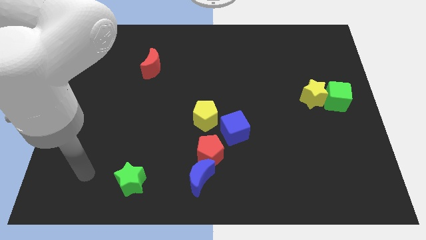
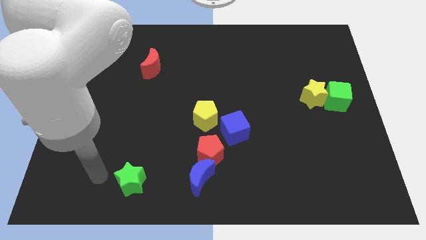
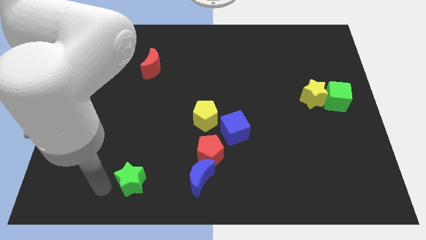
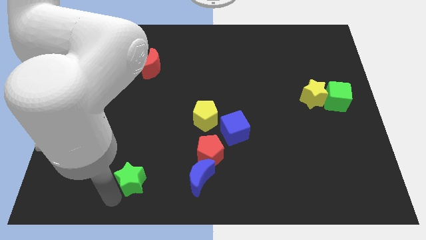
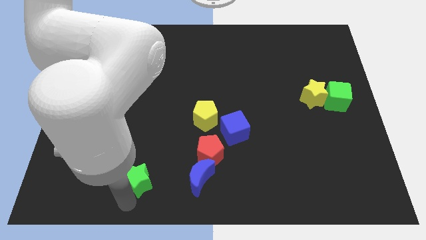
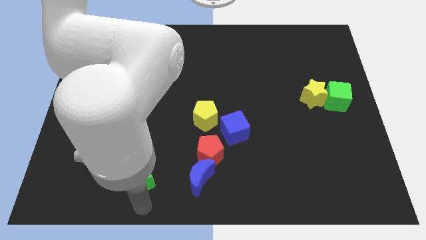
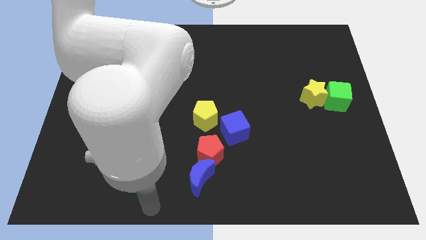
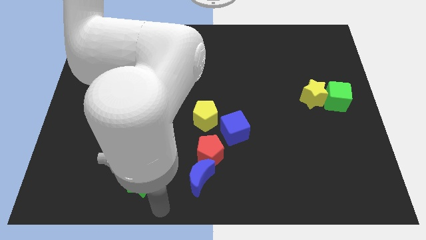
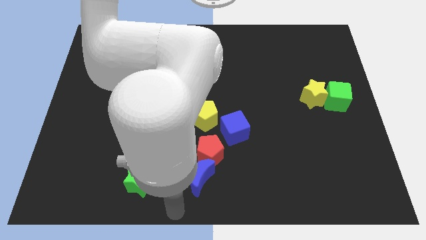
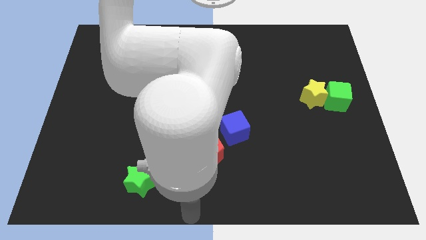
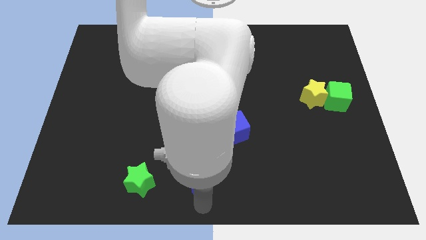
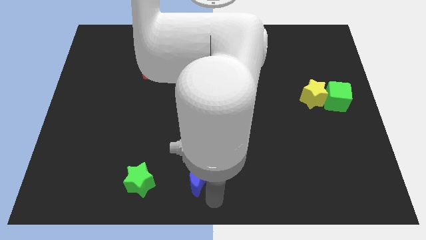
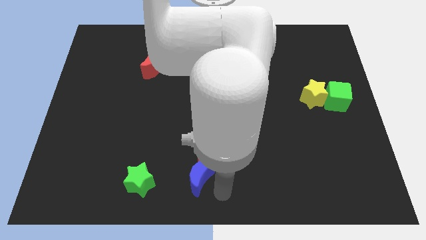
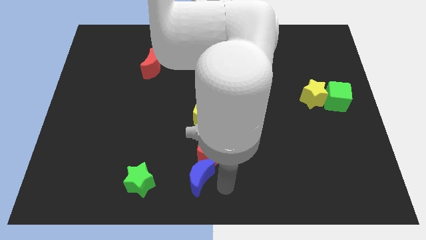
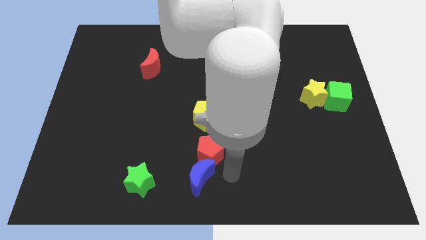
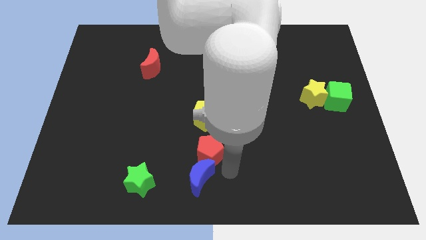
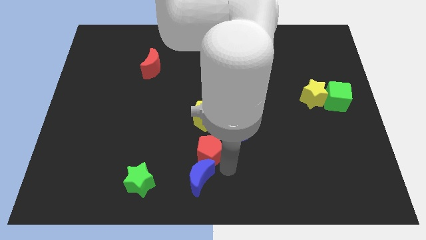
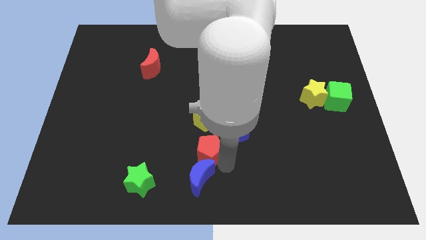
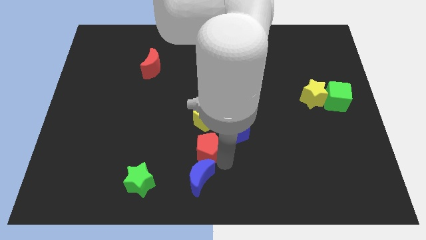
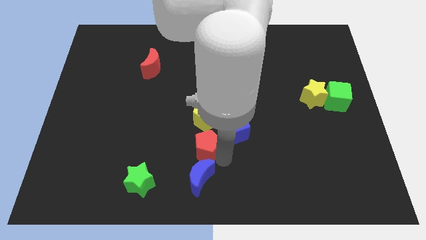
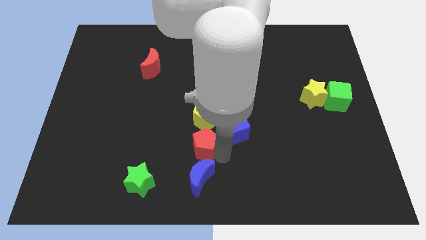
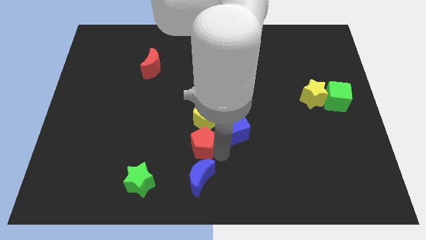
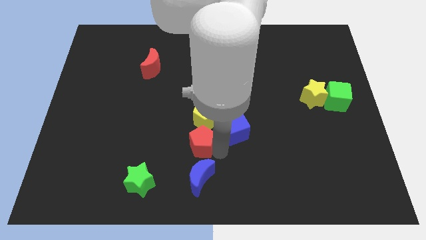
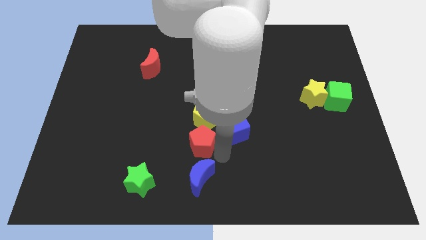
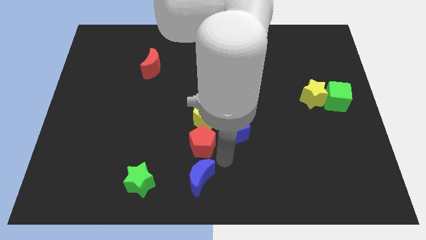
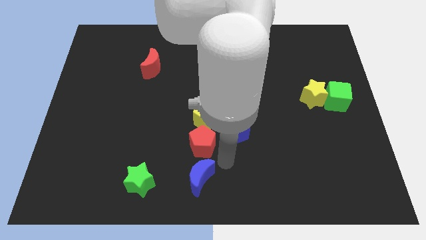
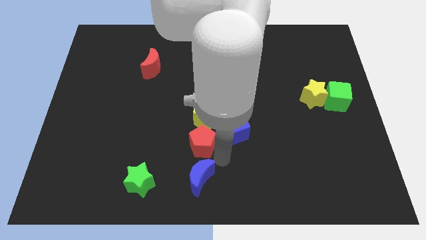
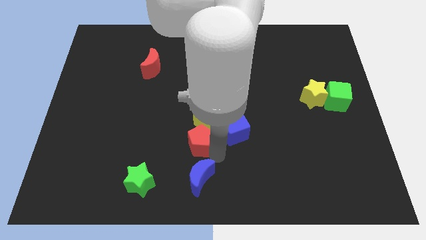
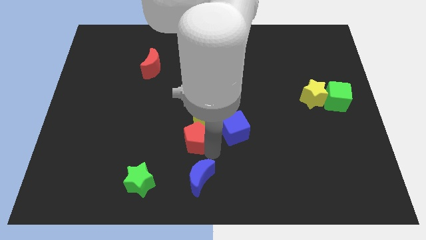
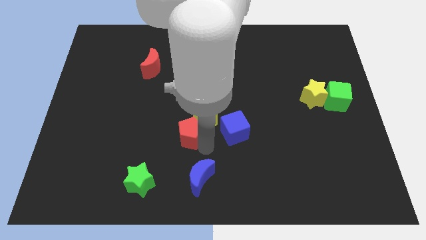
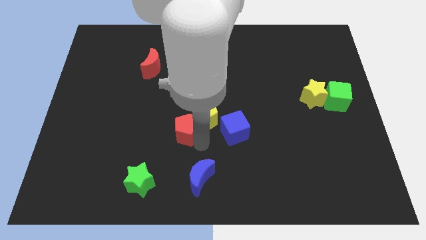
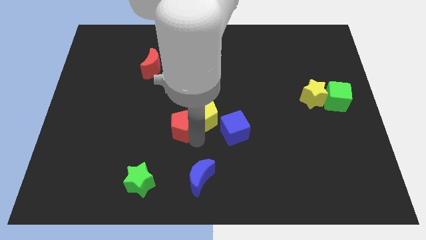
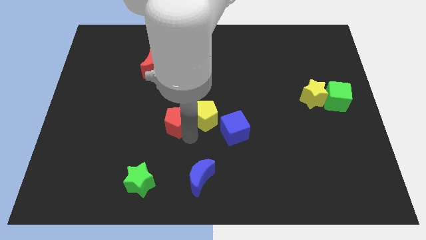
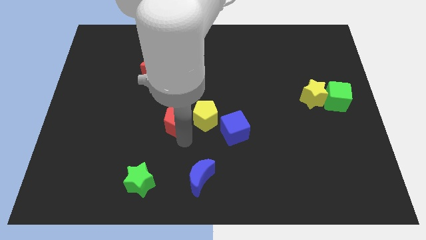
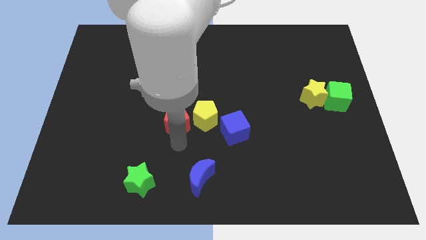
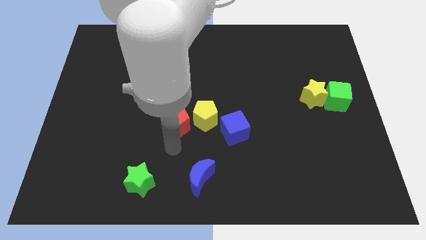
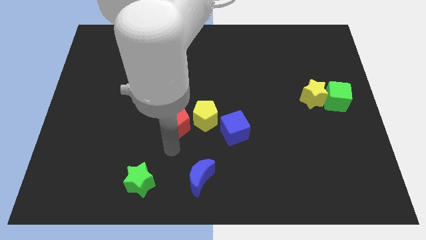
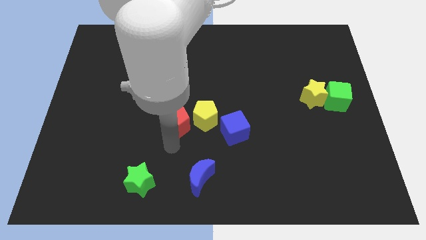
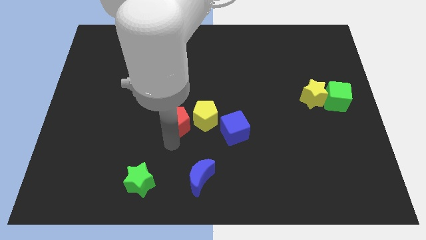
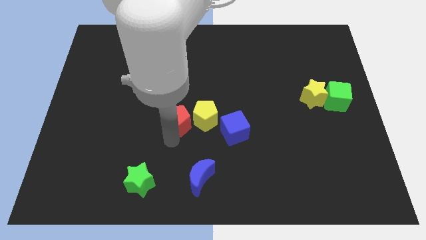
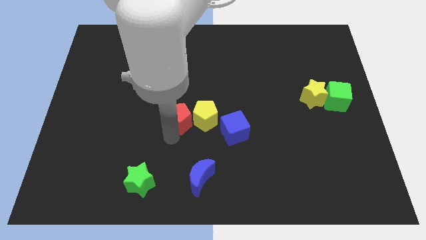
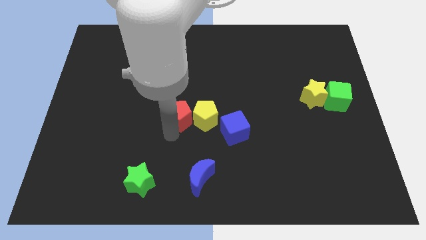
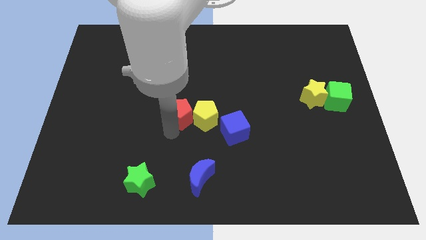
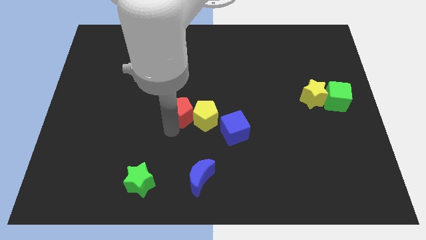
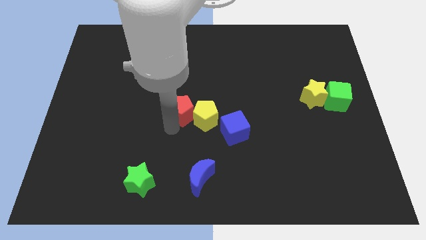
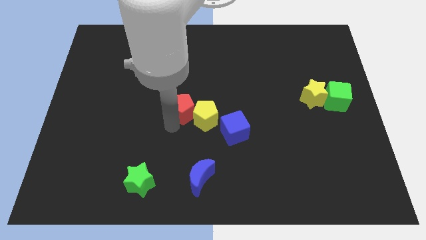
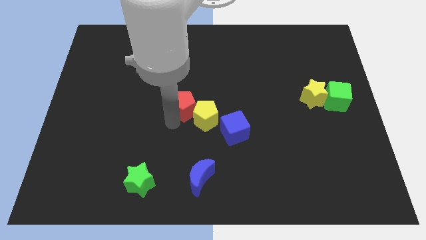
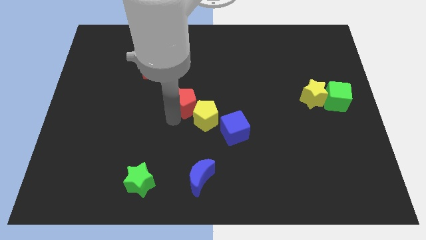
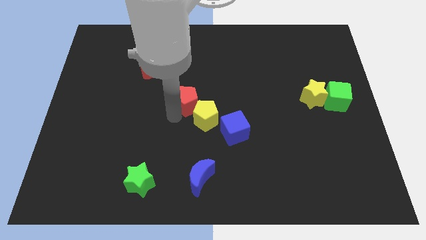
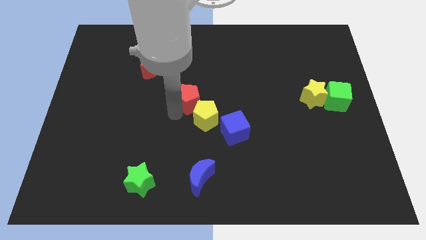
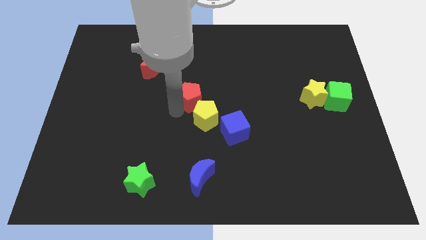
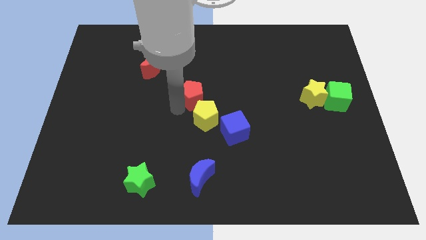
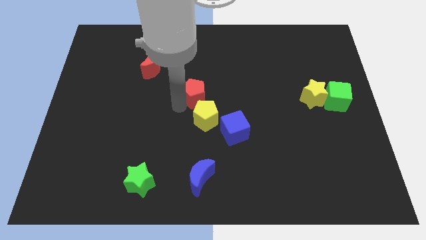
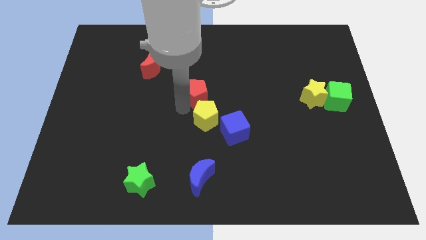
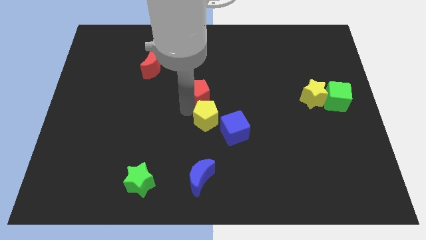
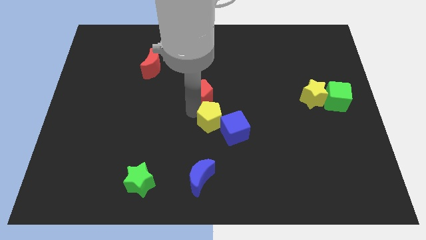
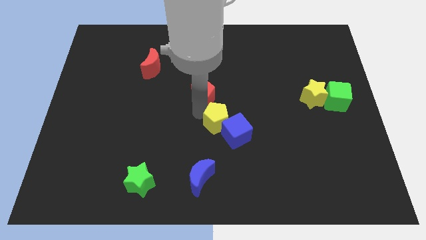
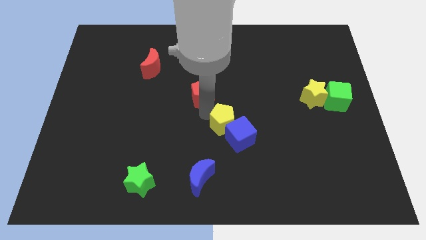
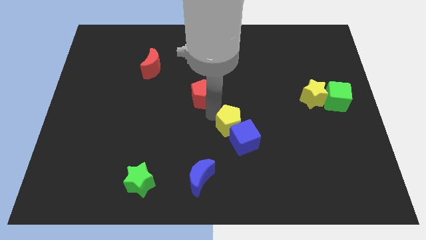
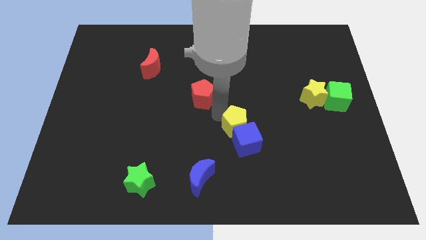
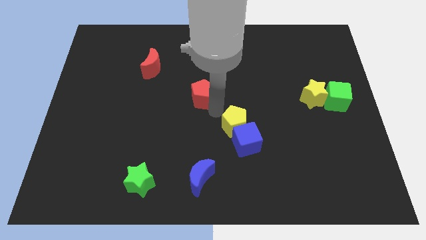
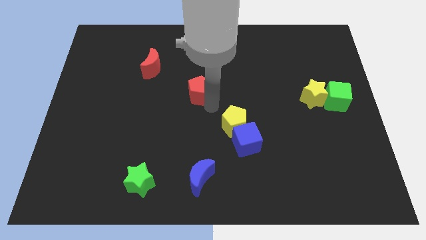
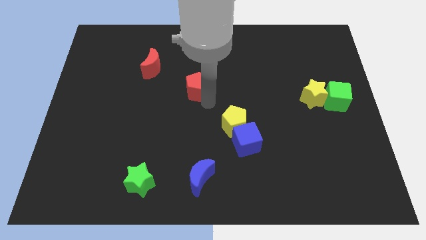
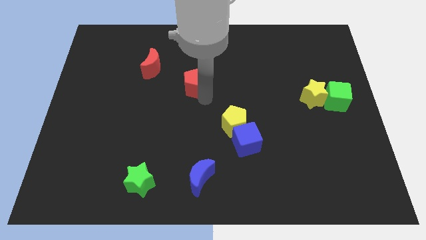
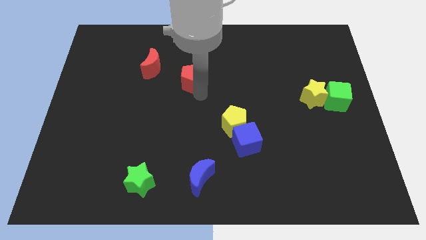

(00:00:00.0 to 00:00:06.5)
put the red pentagon just right of the red moon

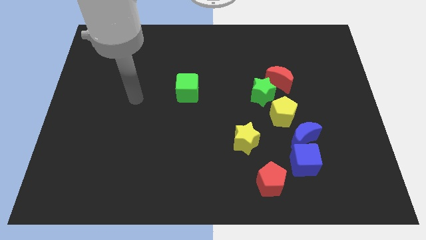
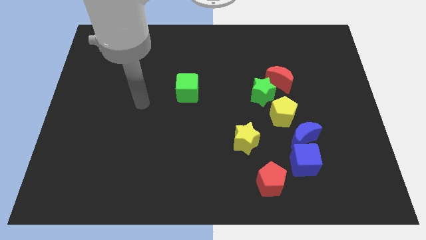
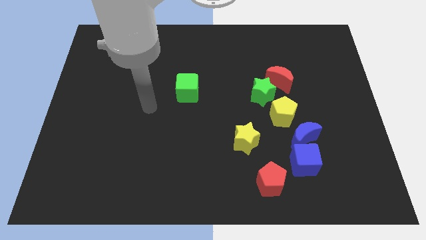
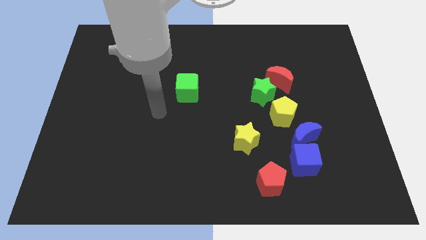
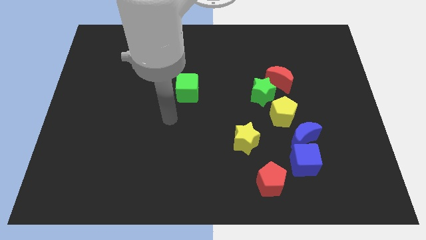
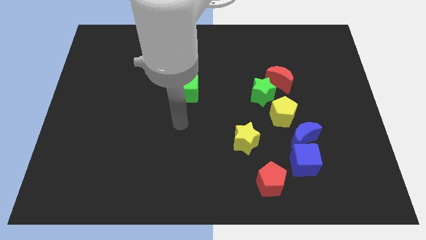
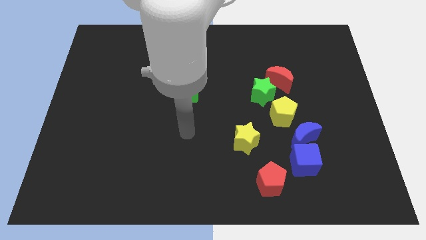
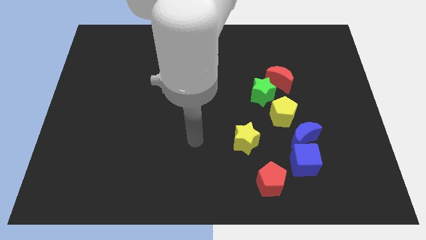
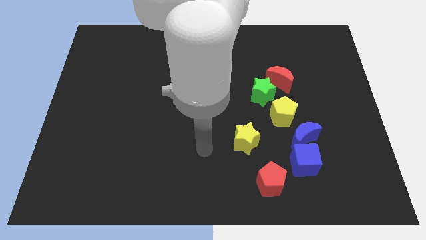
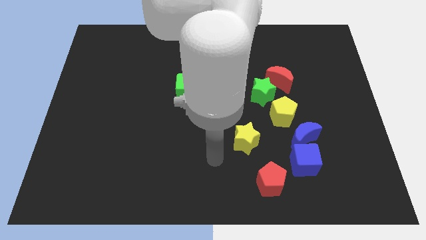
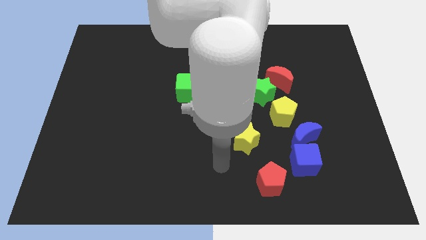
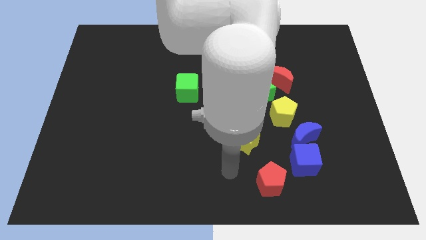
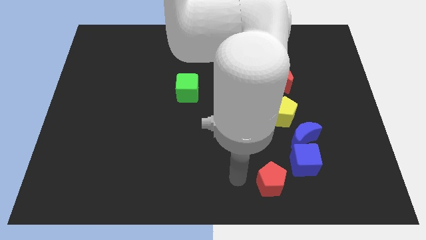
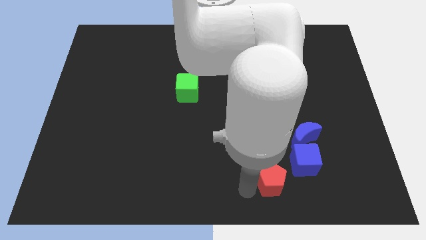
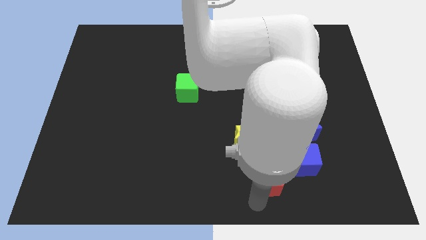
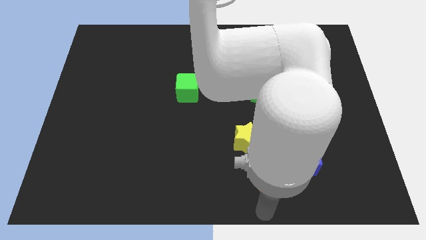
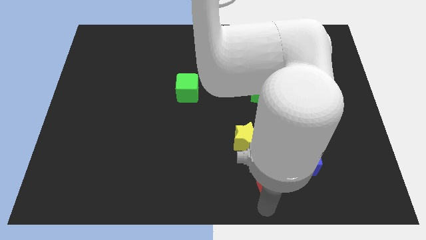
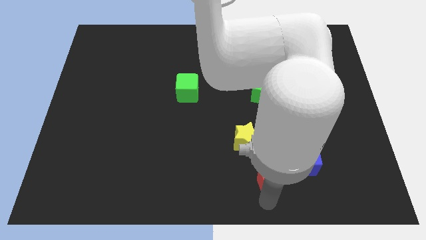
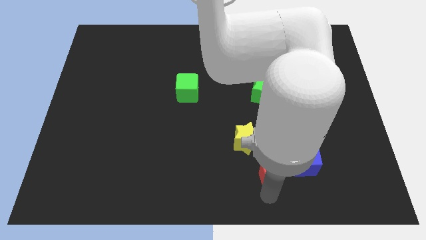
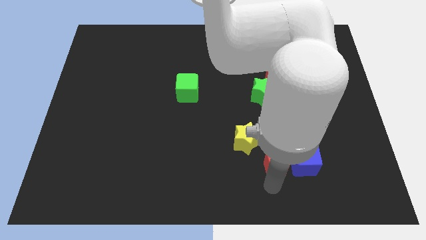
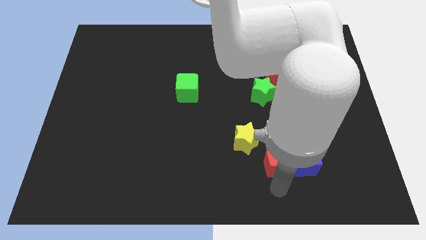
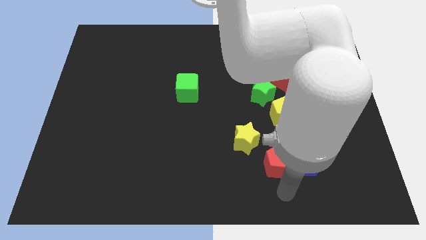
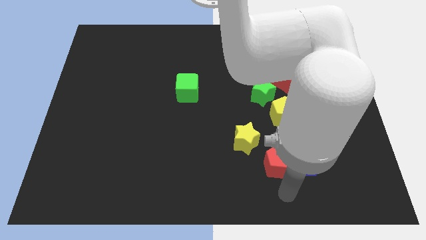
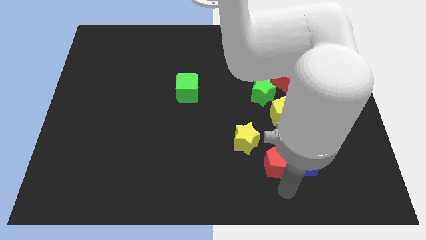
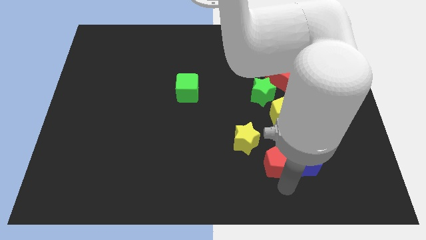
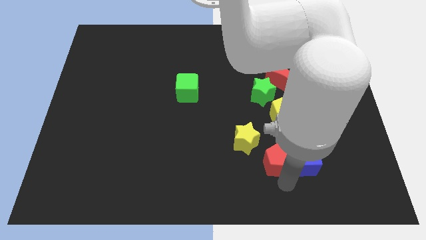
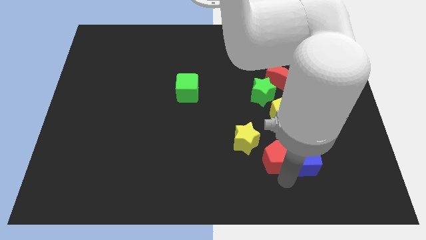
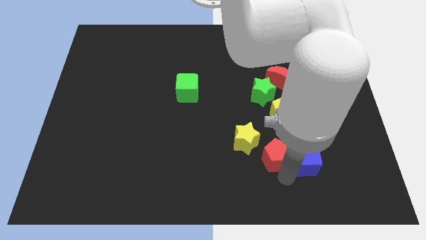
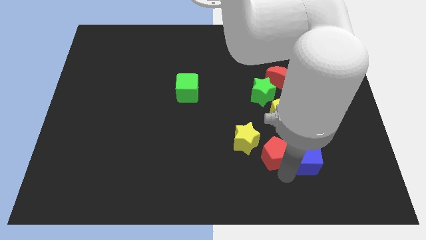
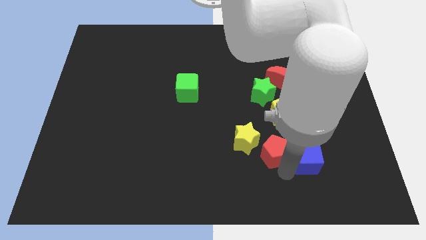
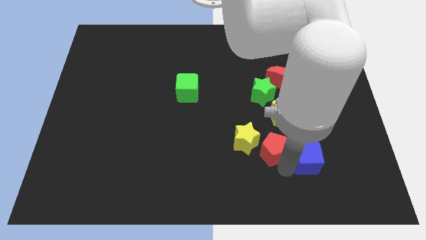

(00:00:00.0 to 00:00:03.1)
put the red pentagon to the bottom side of the green star
